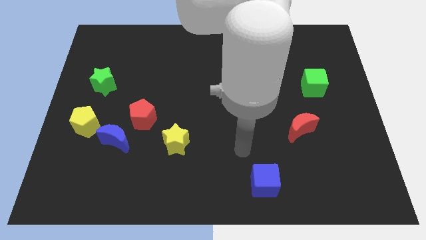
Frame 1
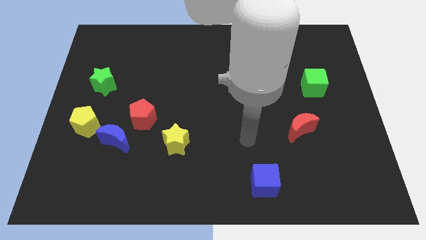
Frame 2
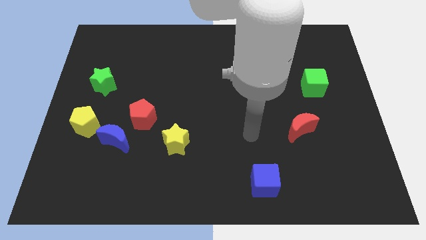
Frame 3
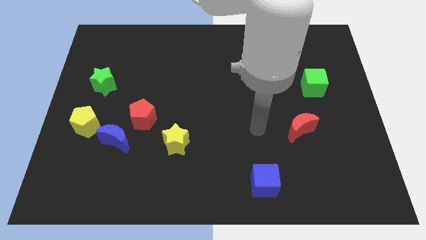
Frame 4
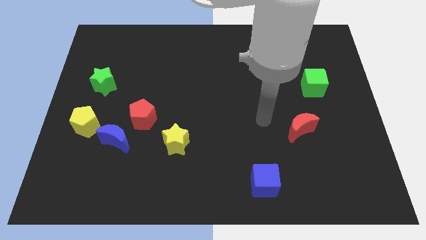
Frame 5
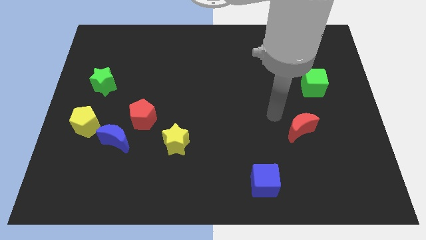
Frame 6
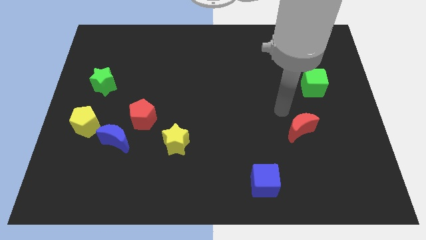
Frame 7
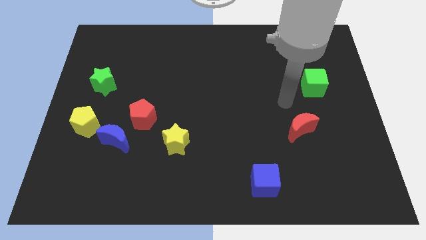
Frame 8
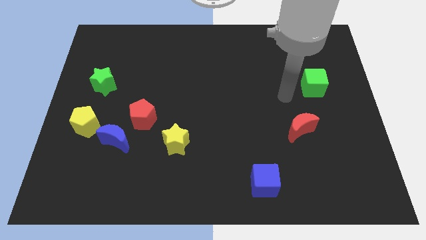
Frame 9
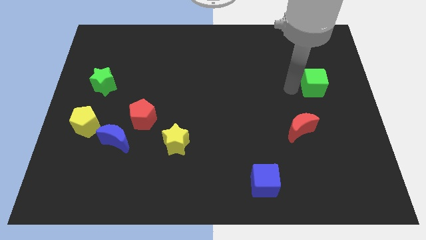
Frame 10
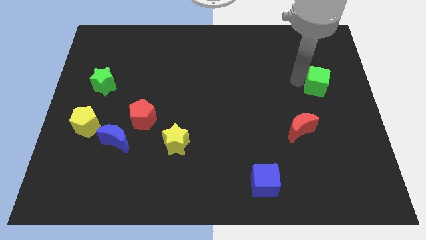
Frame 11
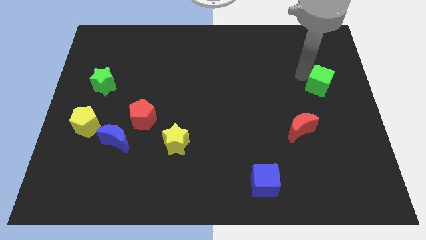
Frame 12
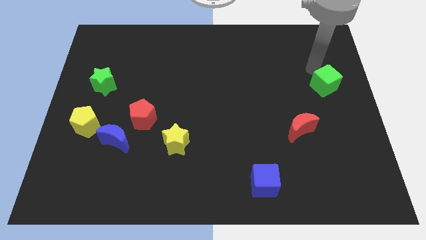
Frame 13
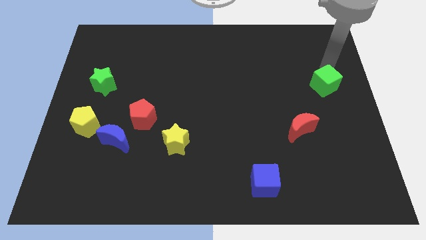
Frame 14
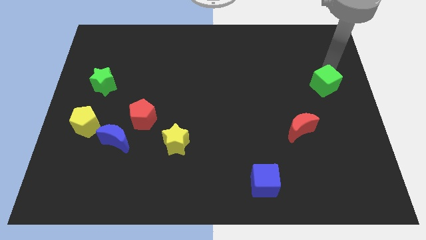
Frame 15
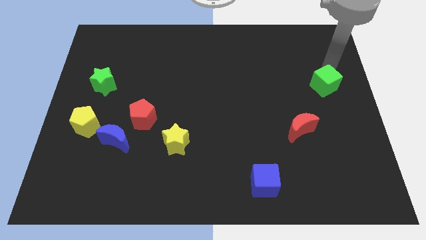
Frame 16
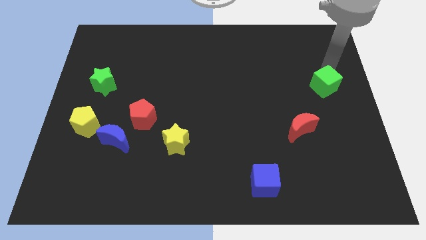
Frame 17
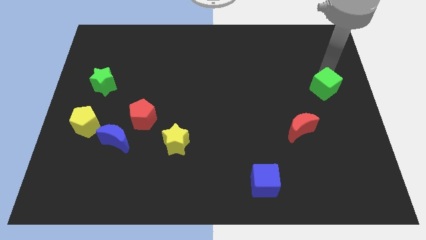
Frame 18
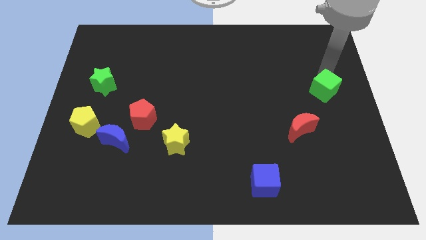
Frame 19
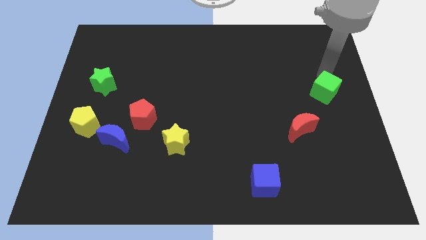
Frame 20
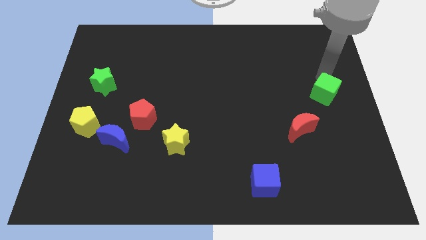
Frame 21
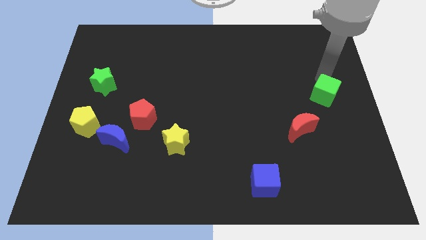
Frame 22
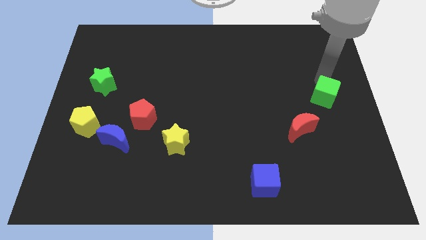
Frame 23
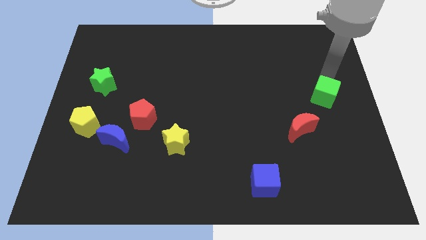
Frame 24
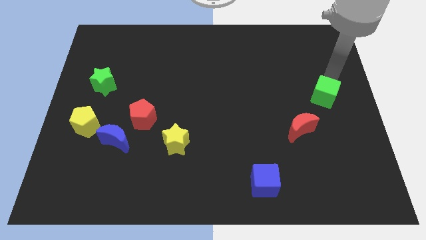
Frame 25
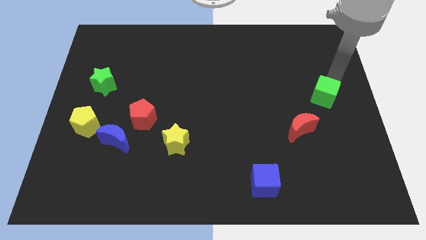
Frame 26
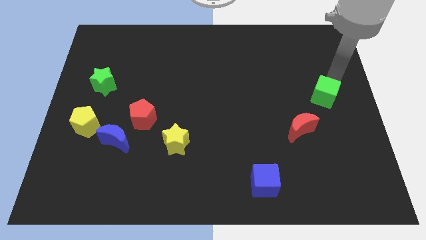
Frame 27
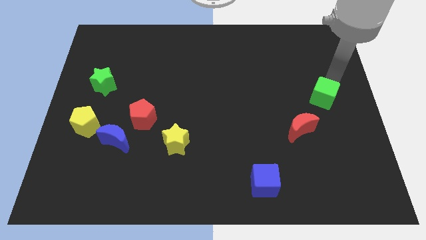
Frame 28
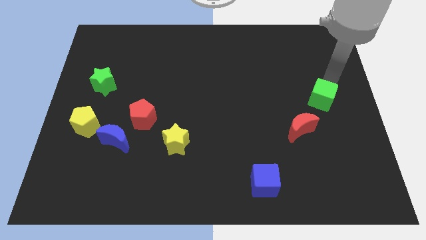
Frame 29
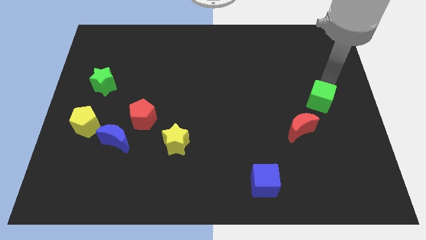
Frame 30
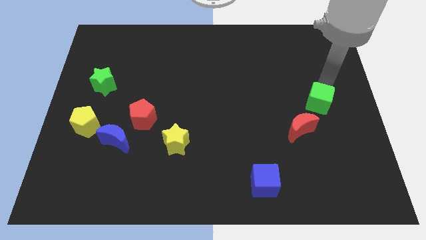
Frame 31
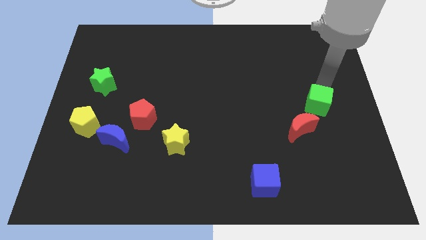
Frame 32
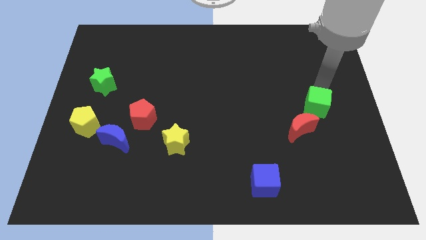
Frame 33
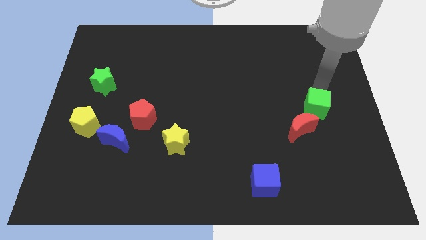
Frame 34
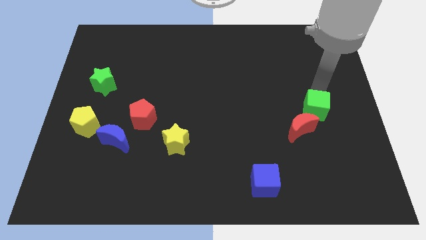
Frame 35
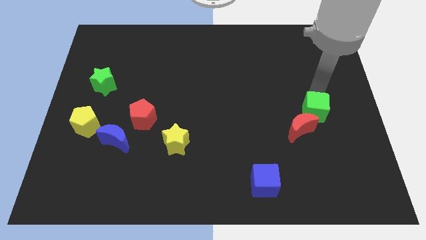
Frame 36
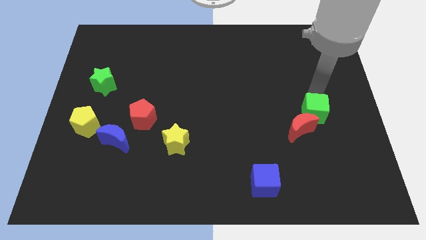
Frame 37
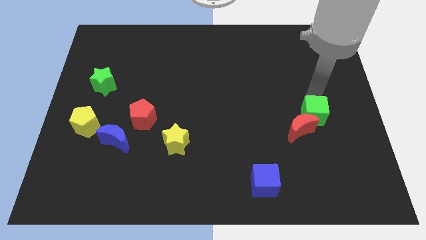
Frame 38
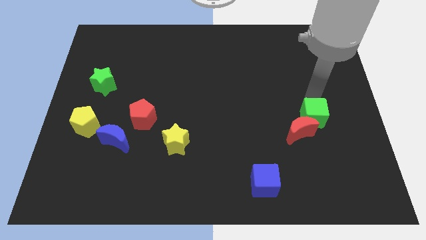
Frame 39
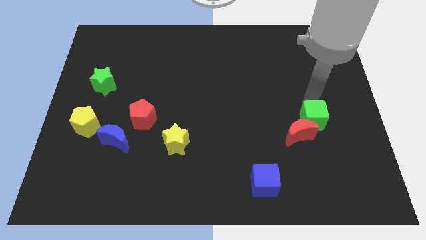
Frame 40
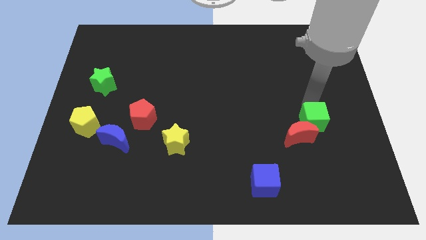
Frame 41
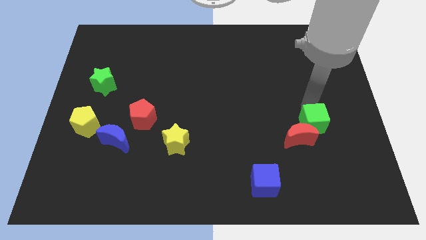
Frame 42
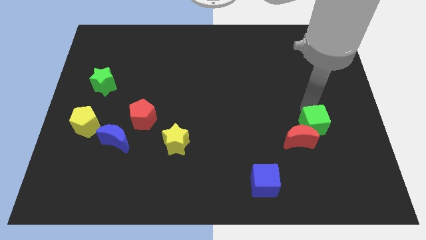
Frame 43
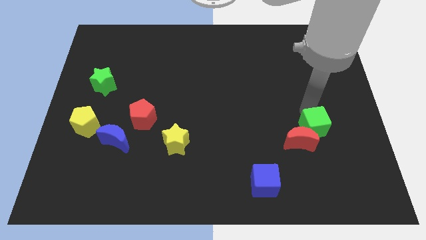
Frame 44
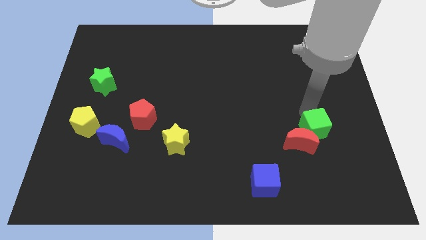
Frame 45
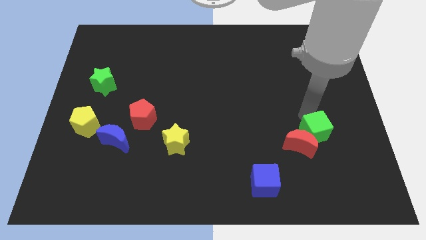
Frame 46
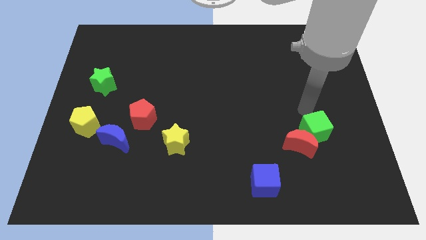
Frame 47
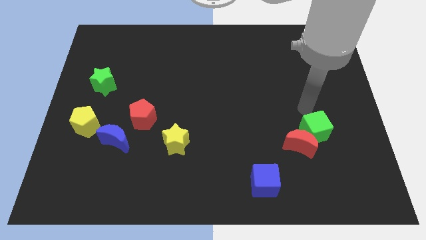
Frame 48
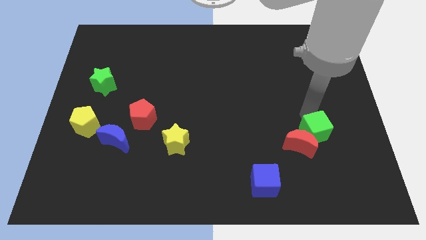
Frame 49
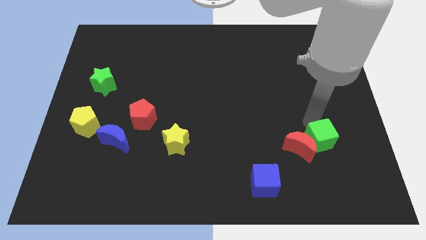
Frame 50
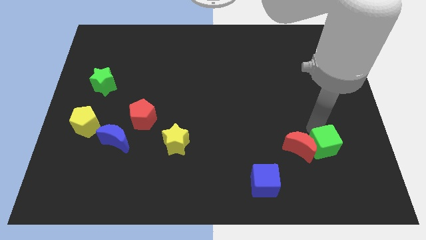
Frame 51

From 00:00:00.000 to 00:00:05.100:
slide the green cube to the bottom right of the red moon

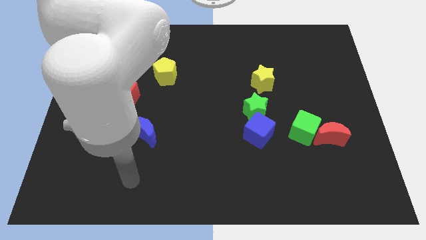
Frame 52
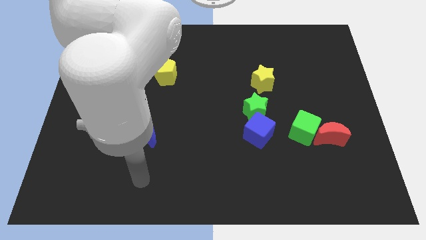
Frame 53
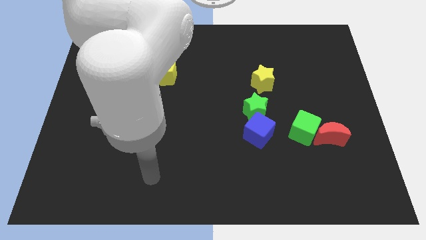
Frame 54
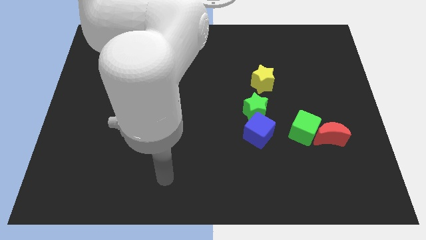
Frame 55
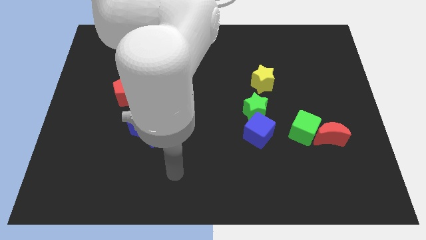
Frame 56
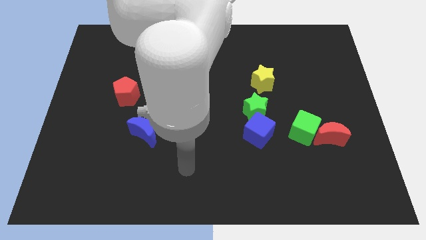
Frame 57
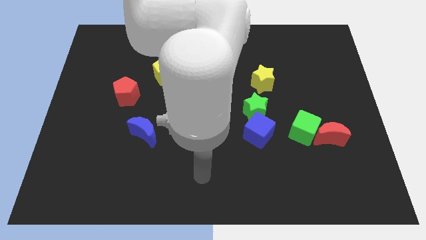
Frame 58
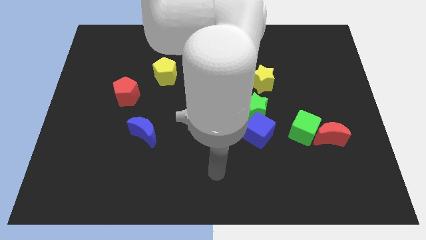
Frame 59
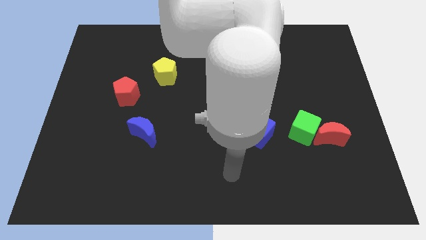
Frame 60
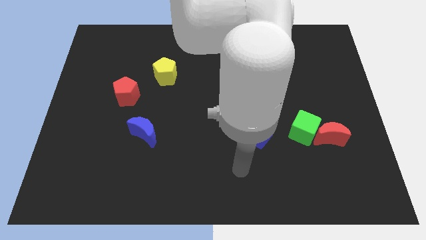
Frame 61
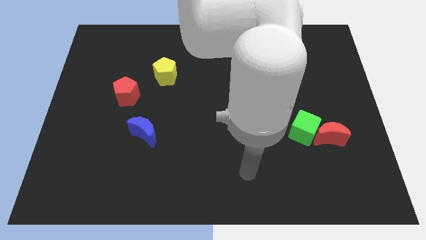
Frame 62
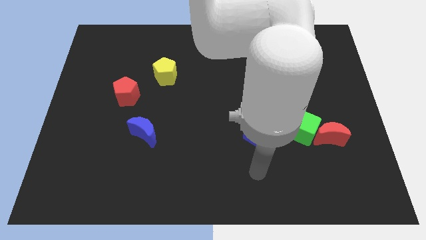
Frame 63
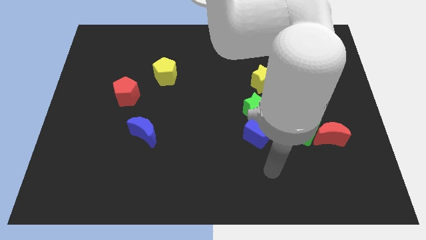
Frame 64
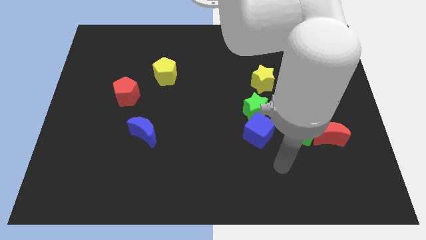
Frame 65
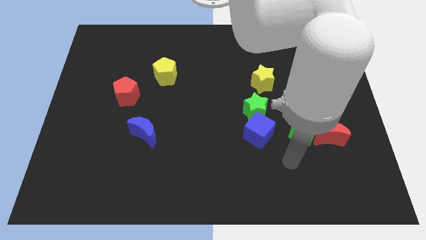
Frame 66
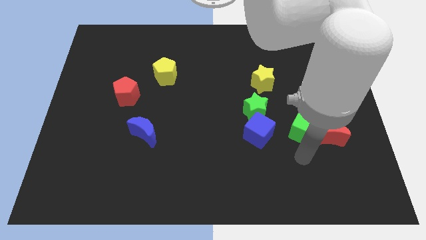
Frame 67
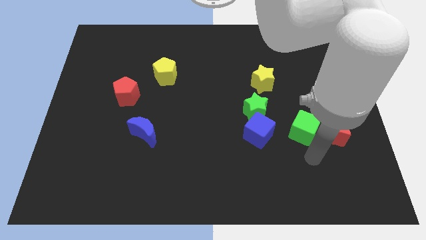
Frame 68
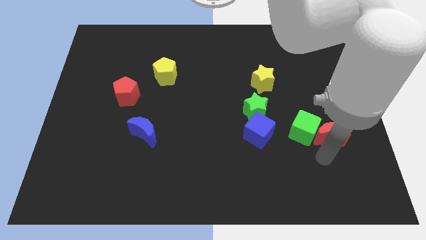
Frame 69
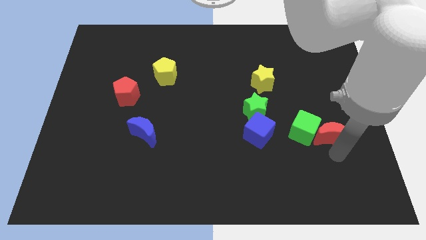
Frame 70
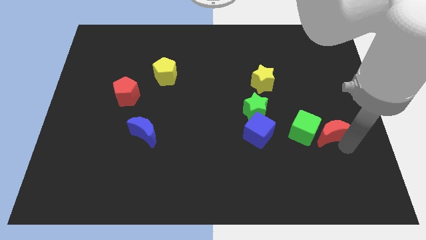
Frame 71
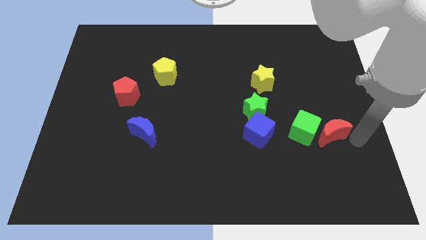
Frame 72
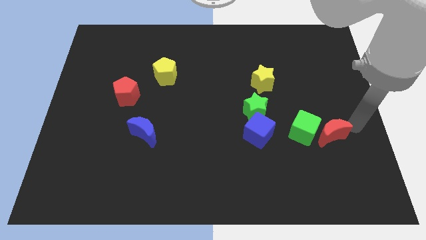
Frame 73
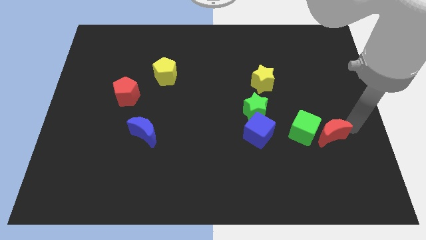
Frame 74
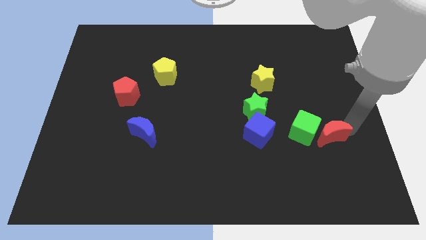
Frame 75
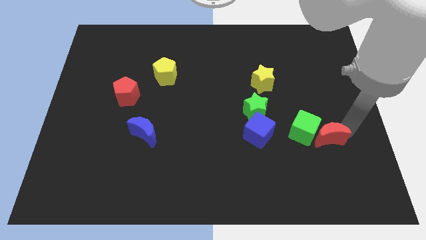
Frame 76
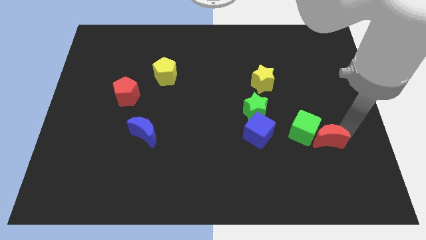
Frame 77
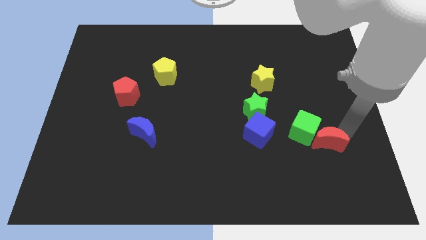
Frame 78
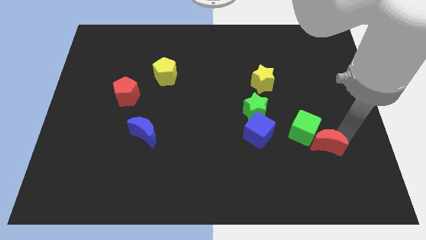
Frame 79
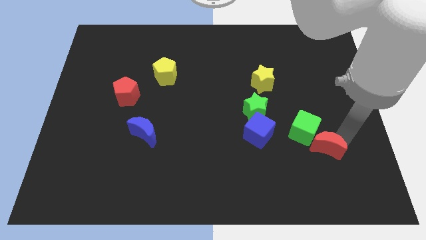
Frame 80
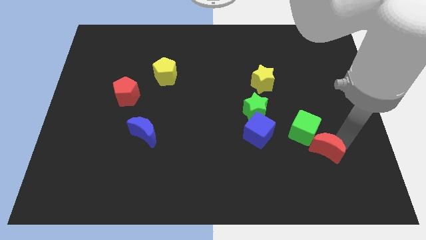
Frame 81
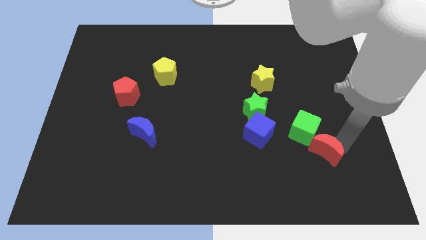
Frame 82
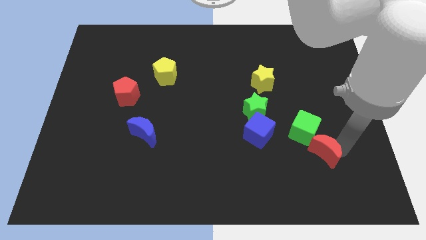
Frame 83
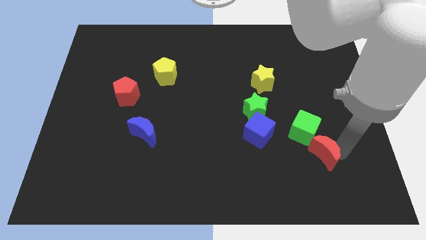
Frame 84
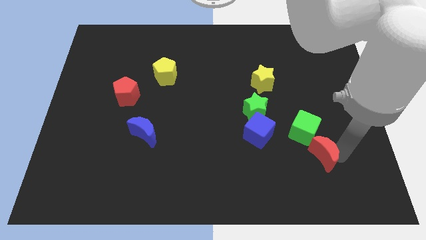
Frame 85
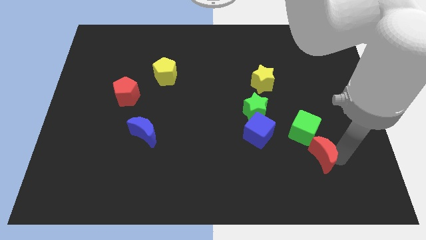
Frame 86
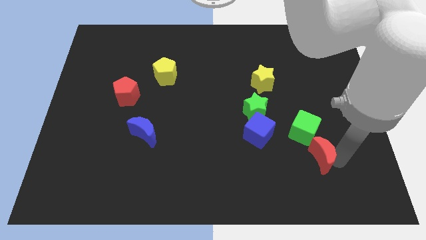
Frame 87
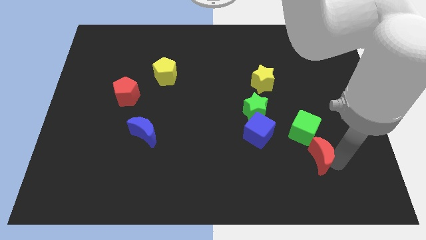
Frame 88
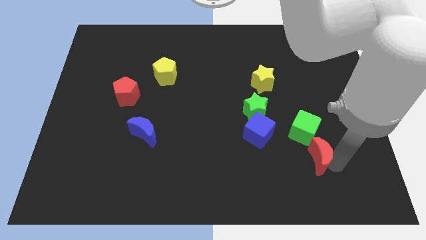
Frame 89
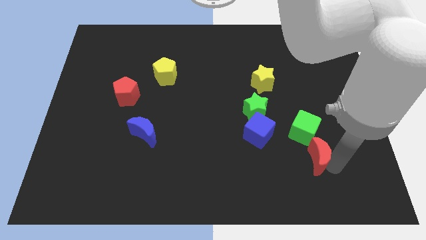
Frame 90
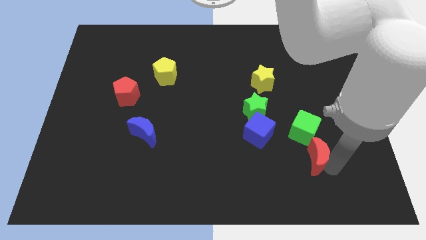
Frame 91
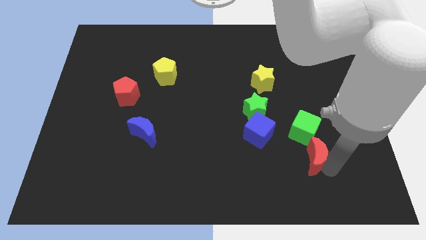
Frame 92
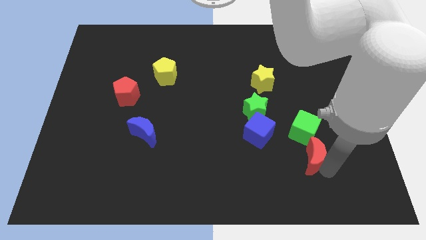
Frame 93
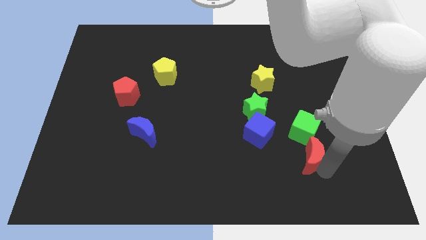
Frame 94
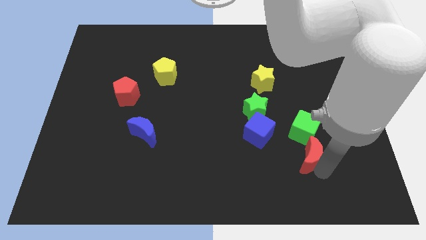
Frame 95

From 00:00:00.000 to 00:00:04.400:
put the red moon to the bottom right side of the blue cube
